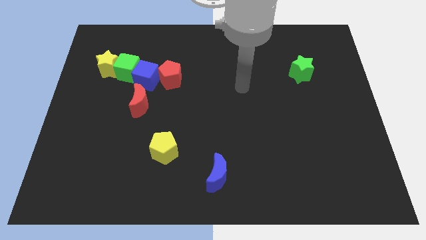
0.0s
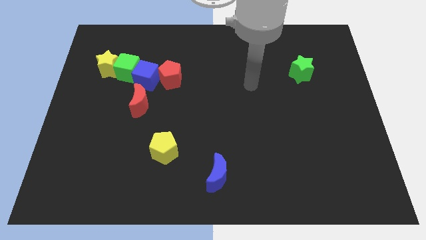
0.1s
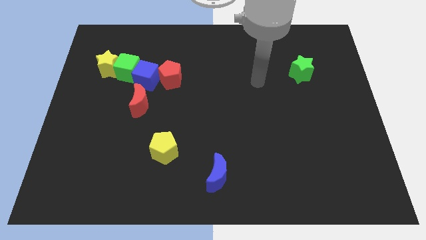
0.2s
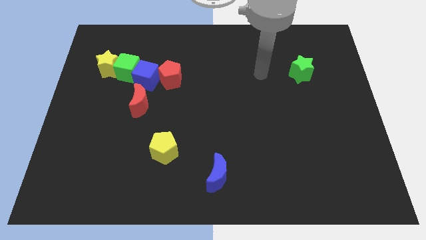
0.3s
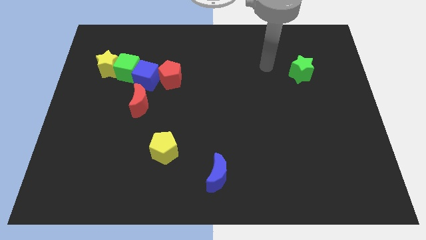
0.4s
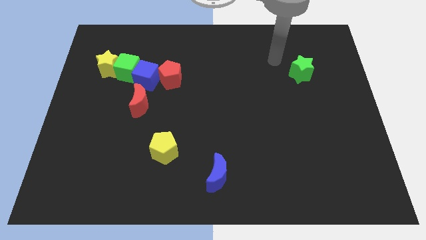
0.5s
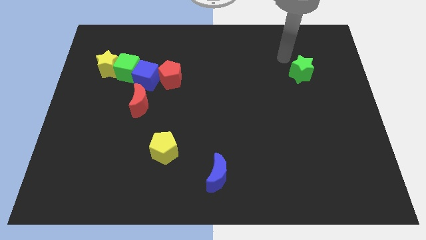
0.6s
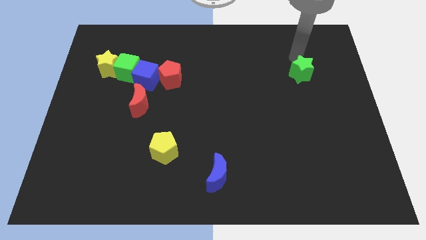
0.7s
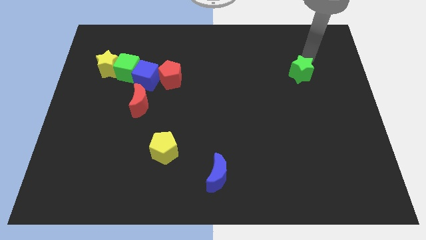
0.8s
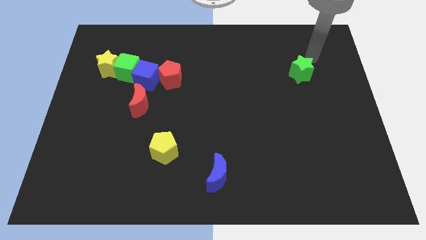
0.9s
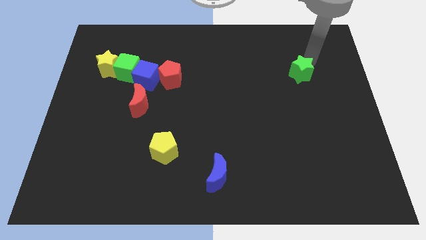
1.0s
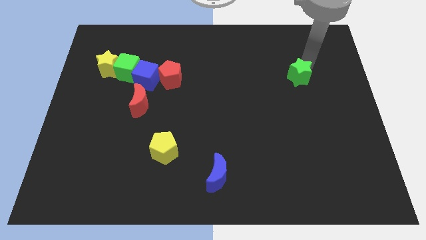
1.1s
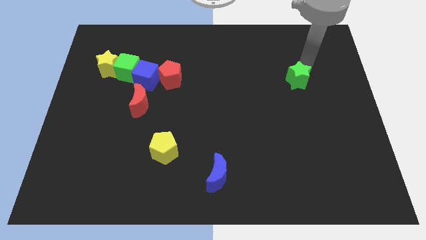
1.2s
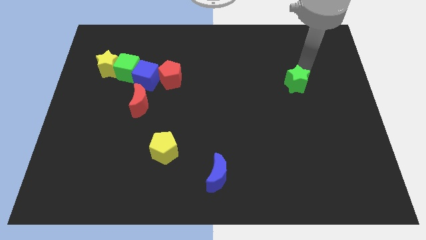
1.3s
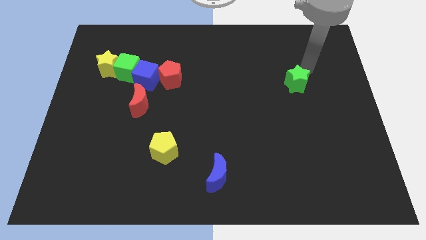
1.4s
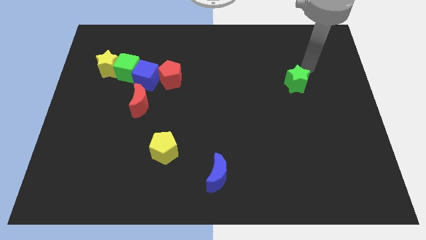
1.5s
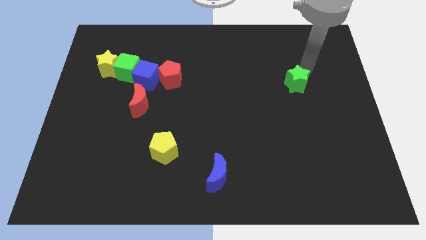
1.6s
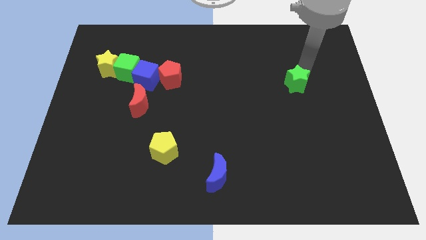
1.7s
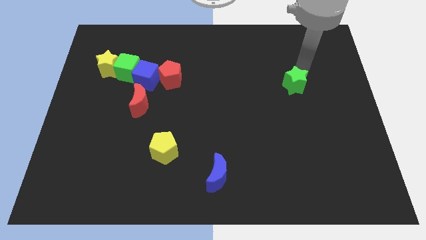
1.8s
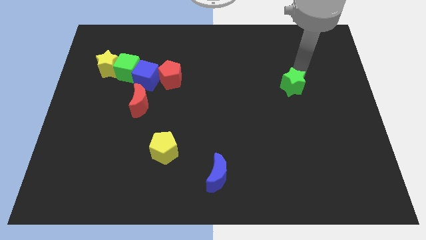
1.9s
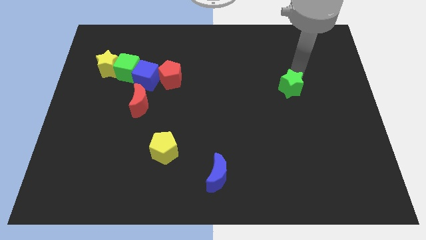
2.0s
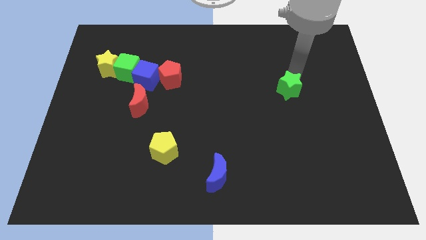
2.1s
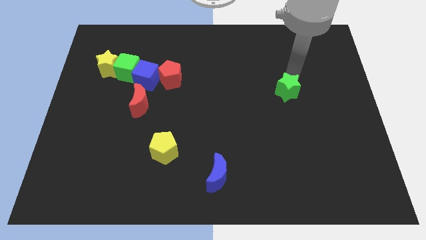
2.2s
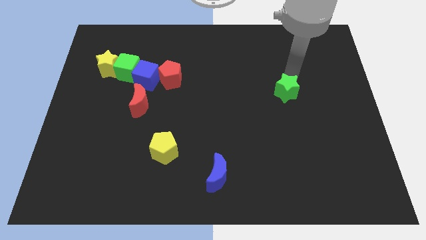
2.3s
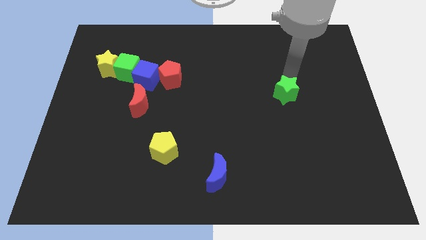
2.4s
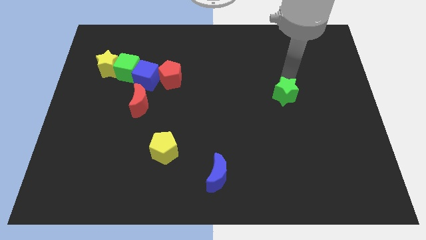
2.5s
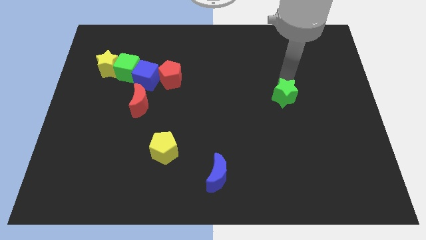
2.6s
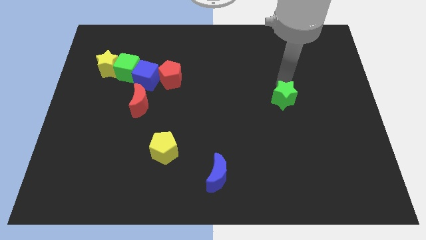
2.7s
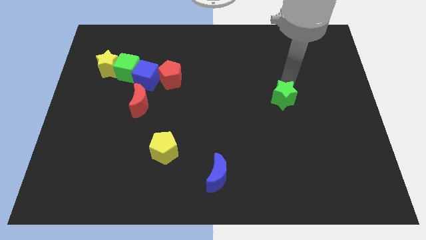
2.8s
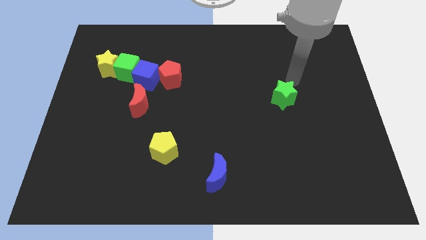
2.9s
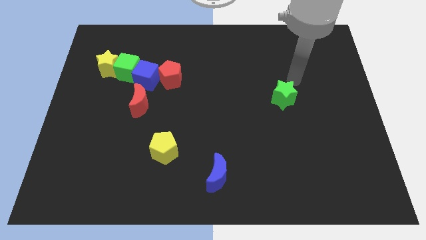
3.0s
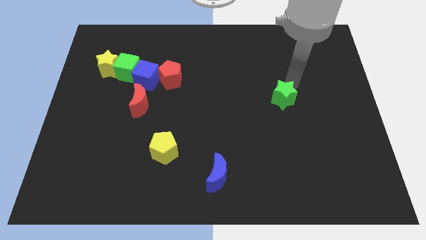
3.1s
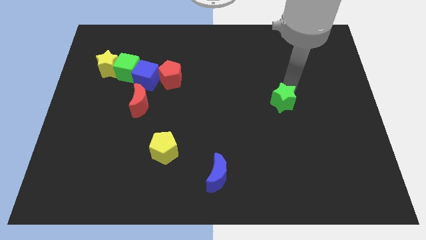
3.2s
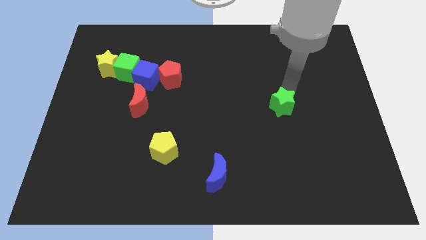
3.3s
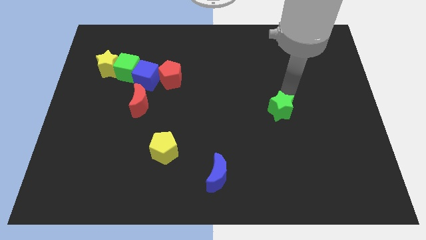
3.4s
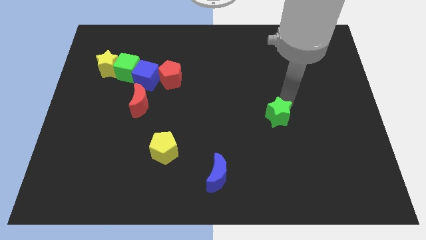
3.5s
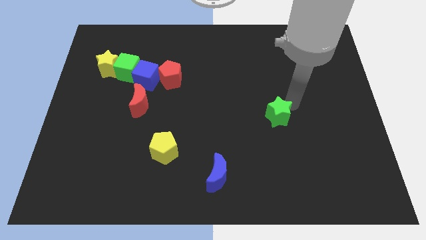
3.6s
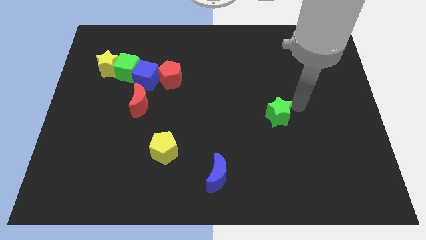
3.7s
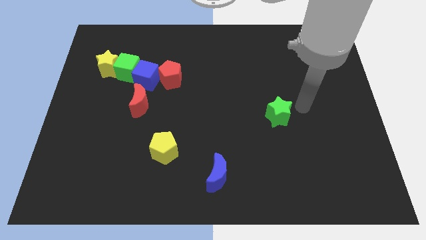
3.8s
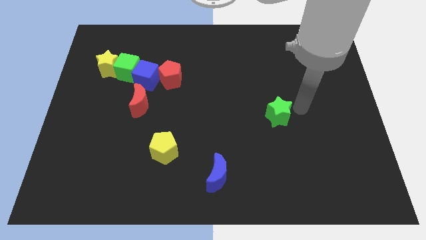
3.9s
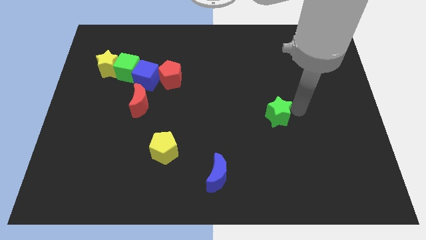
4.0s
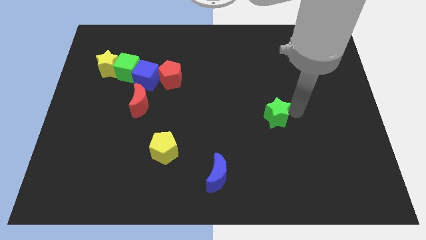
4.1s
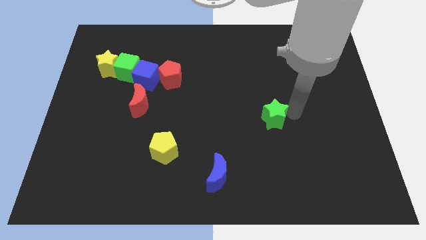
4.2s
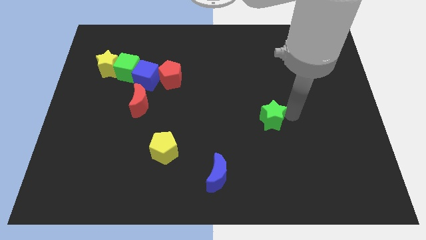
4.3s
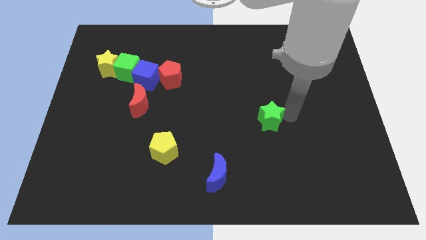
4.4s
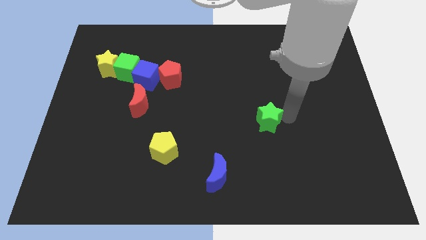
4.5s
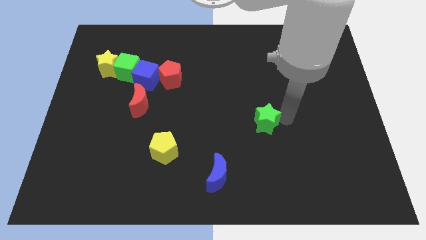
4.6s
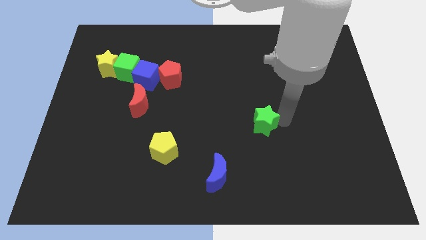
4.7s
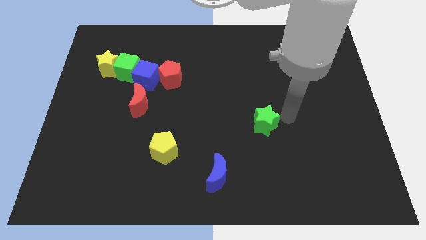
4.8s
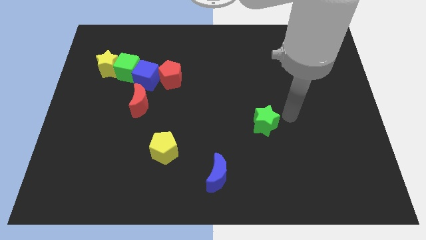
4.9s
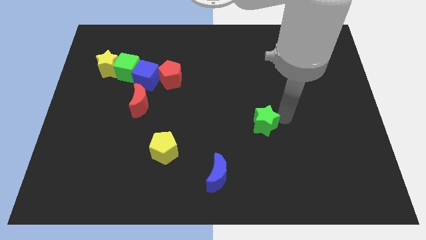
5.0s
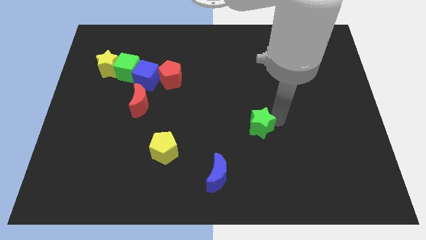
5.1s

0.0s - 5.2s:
move the green star diagonally down and to the left

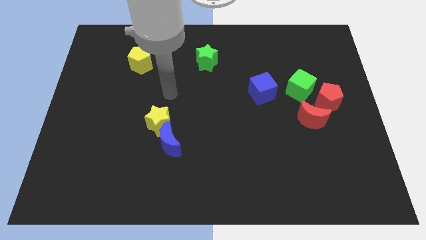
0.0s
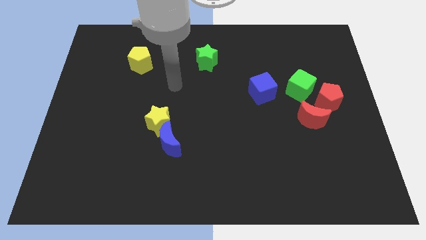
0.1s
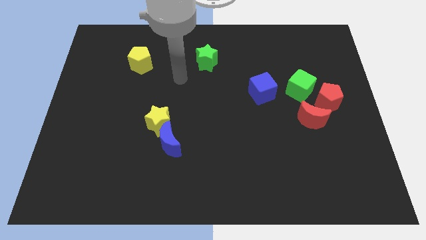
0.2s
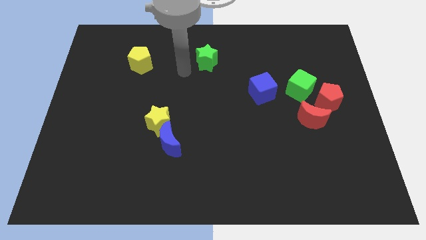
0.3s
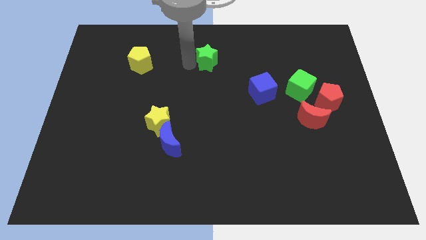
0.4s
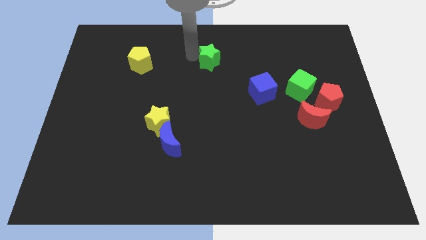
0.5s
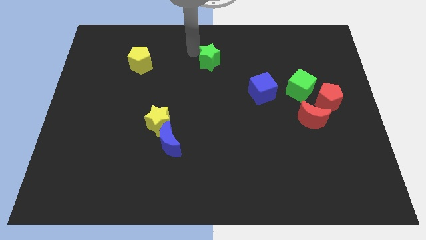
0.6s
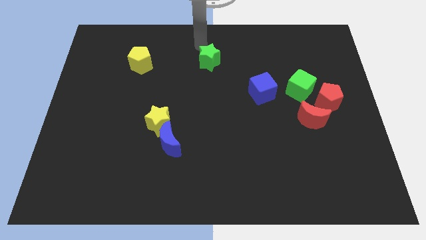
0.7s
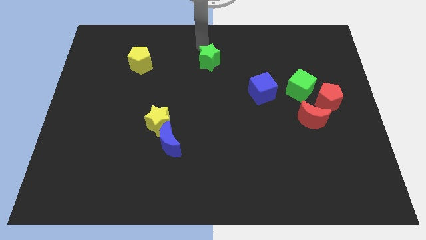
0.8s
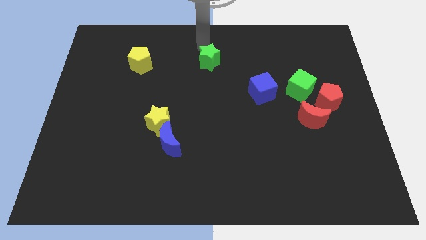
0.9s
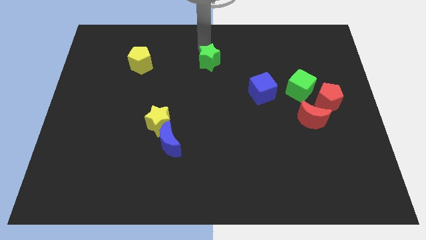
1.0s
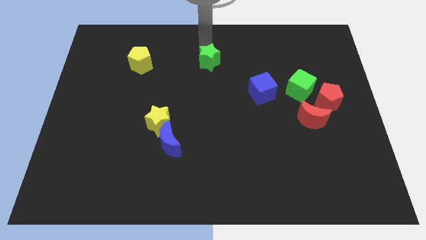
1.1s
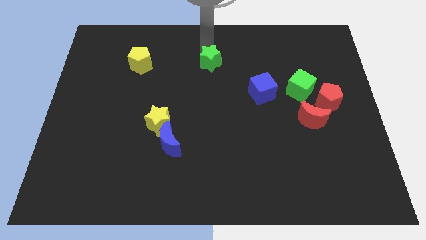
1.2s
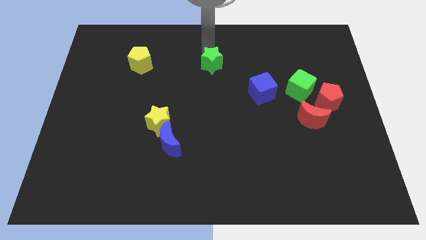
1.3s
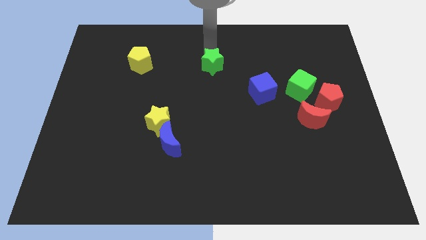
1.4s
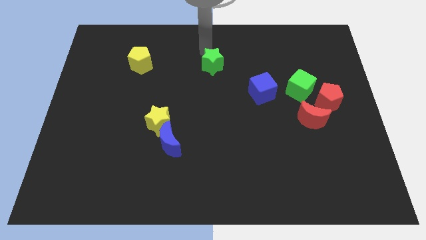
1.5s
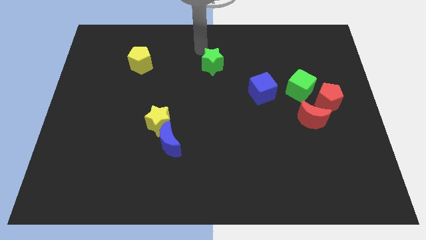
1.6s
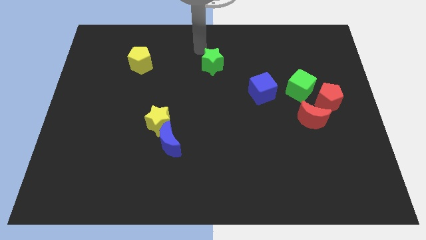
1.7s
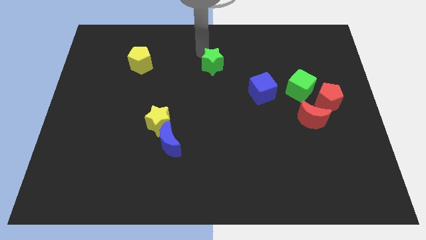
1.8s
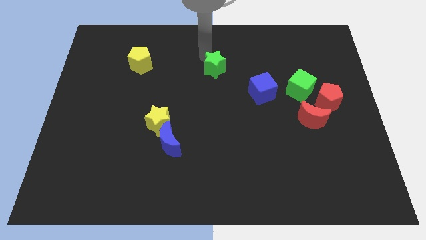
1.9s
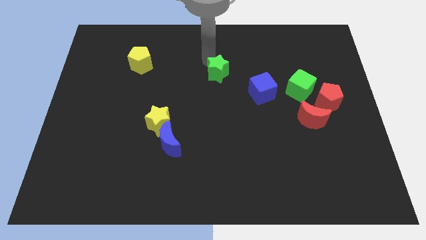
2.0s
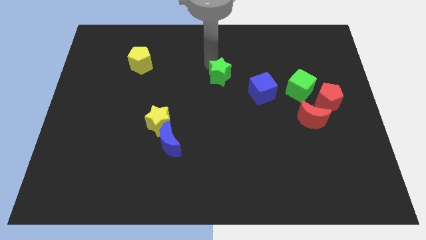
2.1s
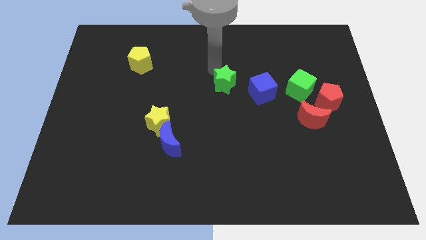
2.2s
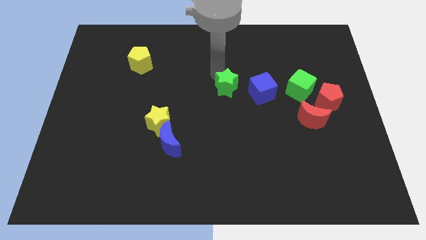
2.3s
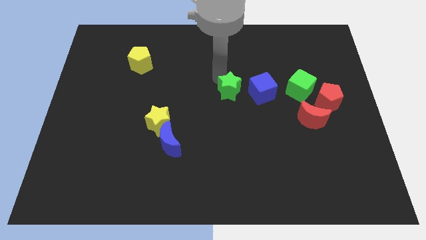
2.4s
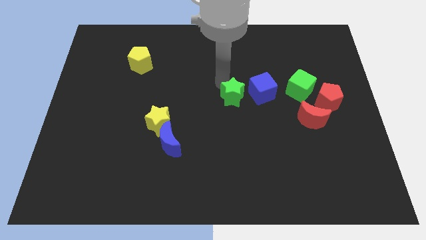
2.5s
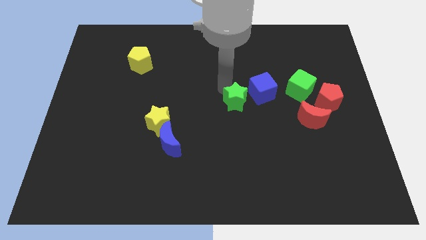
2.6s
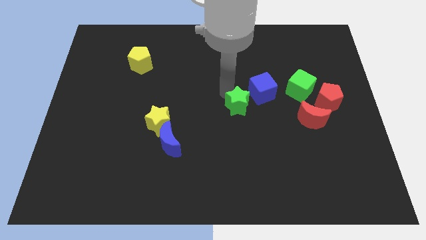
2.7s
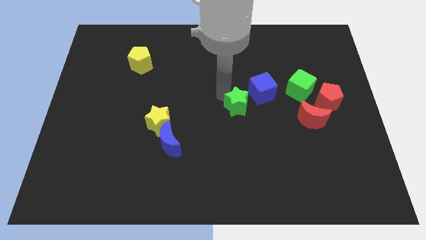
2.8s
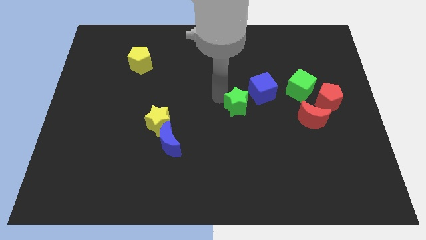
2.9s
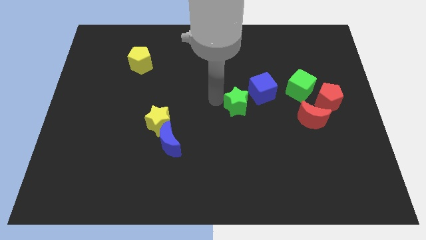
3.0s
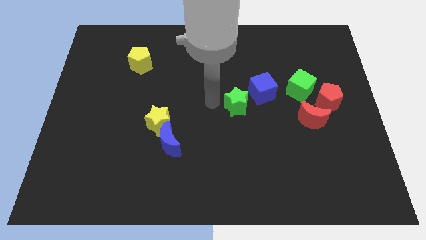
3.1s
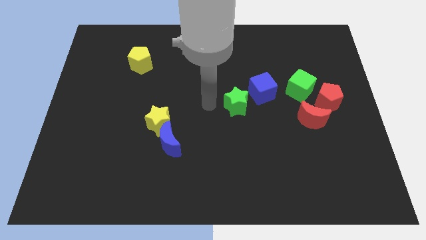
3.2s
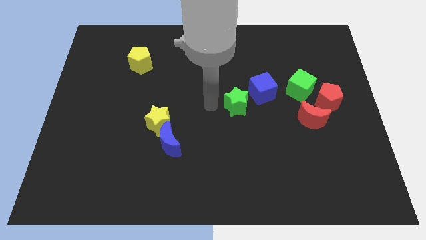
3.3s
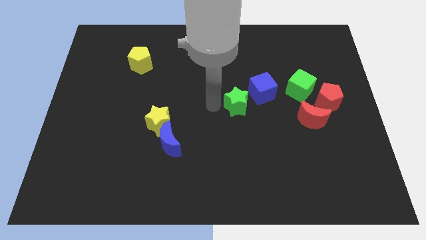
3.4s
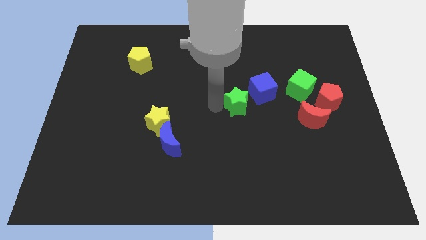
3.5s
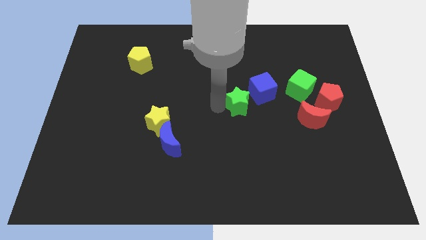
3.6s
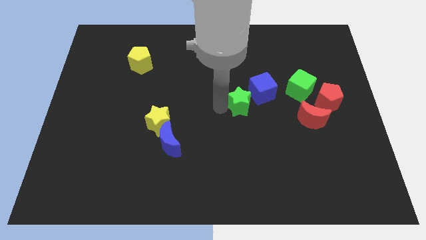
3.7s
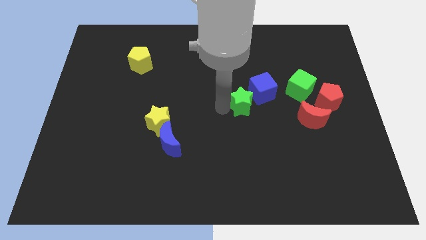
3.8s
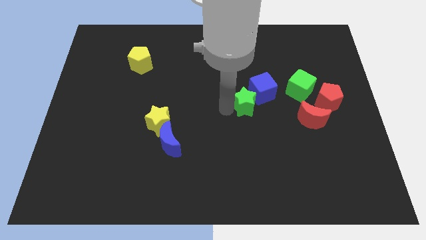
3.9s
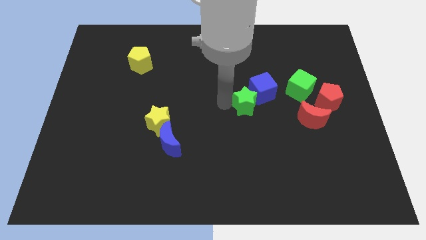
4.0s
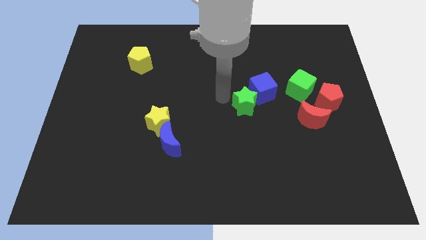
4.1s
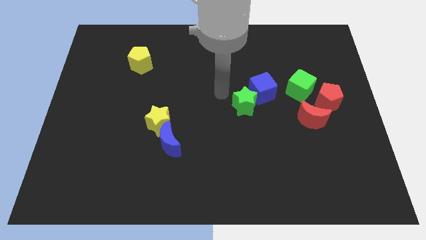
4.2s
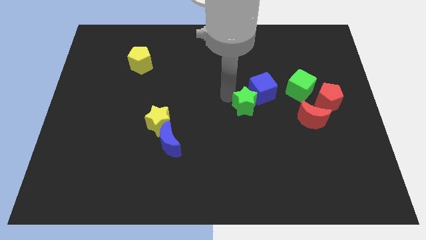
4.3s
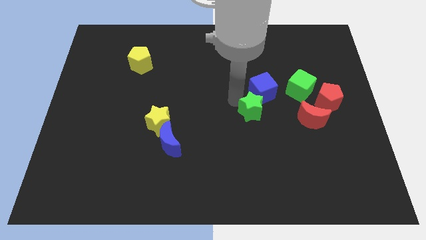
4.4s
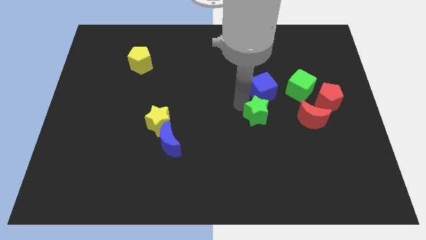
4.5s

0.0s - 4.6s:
push the green star downwards and right
